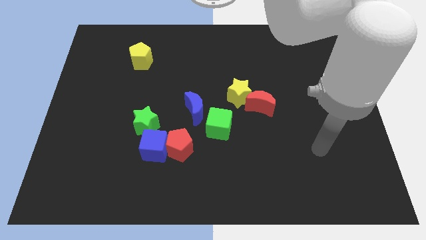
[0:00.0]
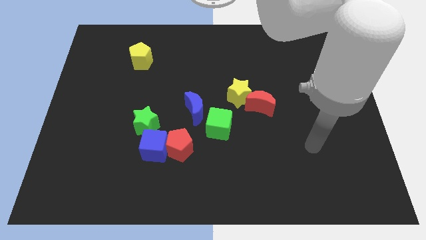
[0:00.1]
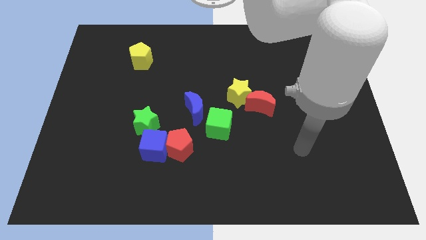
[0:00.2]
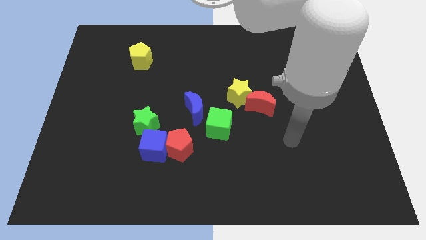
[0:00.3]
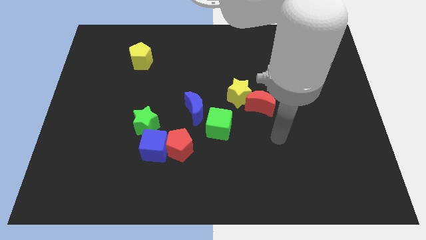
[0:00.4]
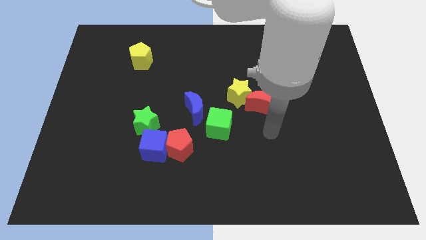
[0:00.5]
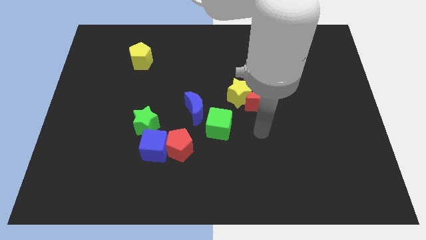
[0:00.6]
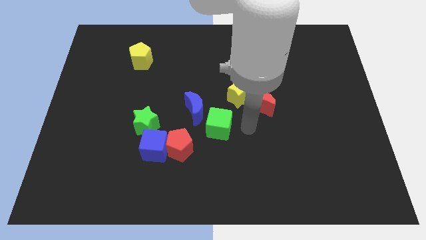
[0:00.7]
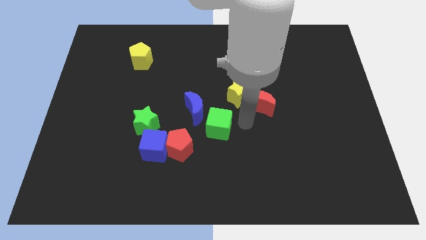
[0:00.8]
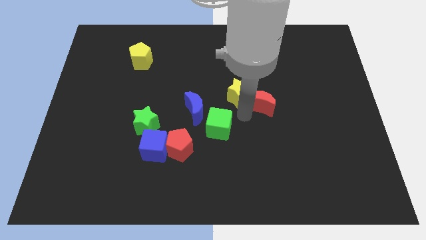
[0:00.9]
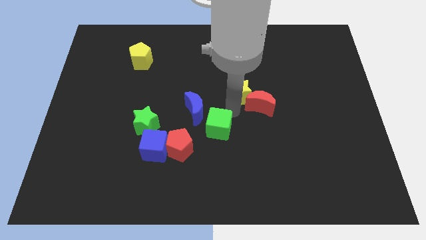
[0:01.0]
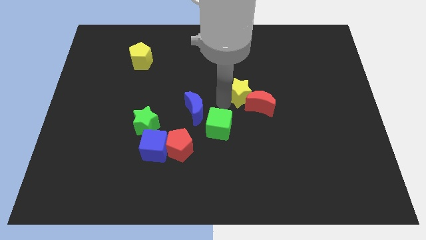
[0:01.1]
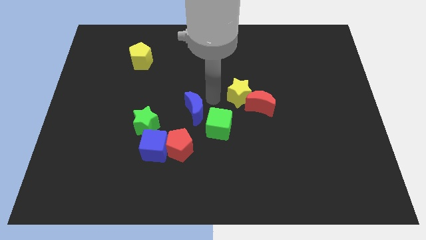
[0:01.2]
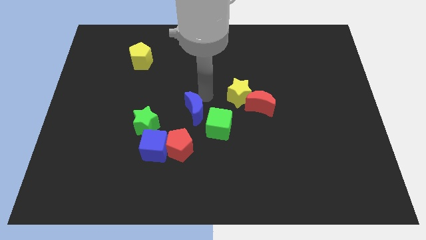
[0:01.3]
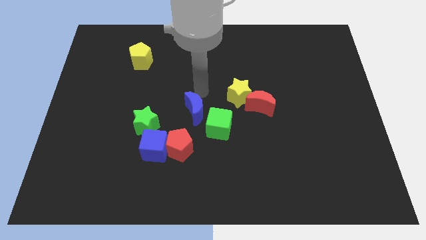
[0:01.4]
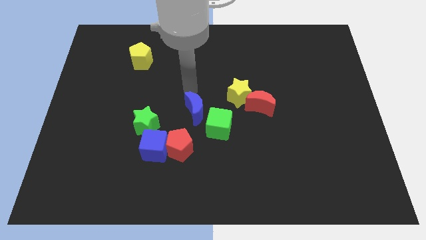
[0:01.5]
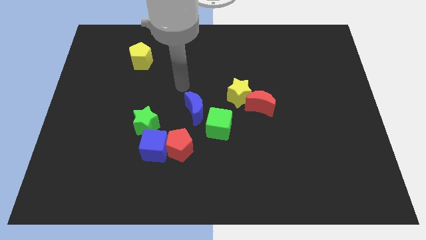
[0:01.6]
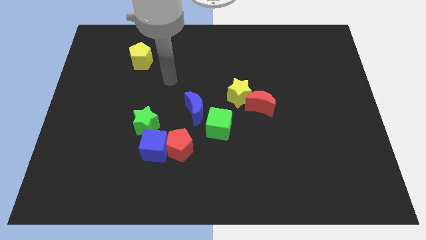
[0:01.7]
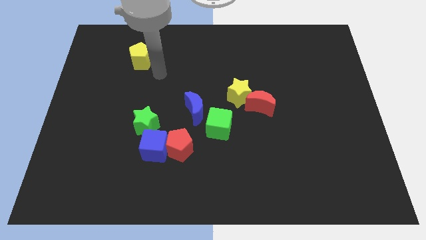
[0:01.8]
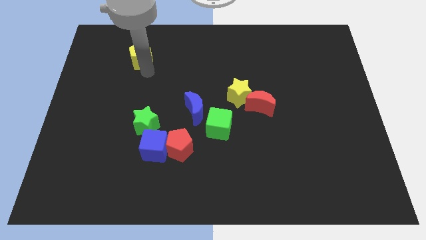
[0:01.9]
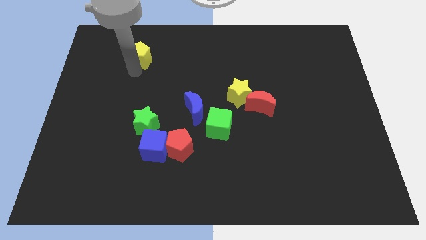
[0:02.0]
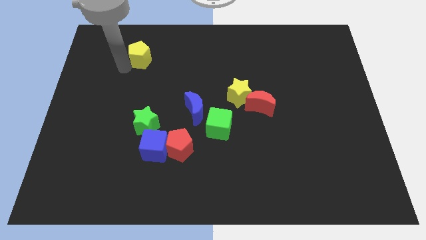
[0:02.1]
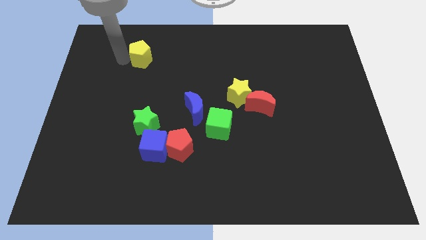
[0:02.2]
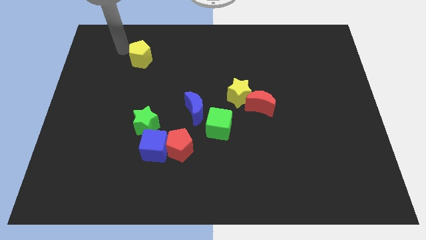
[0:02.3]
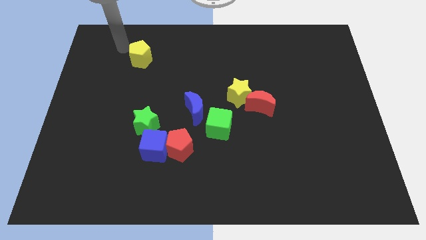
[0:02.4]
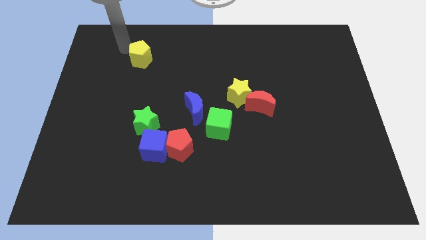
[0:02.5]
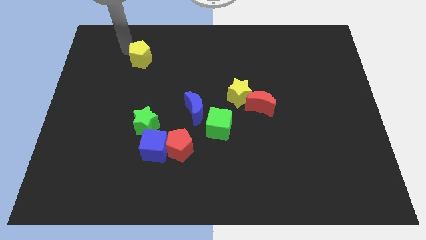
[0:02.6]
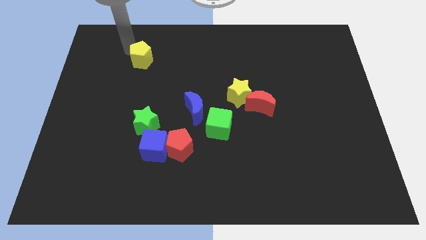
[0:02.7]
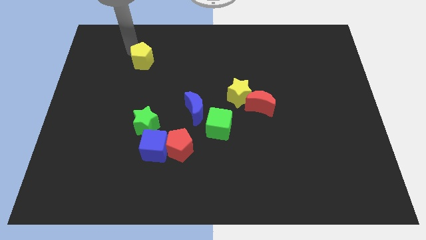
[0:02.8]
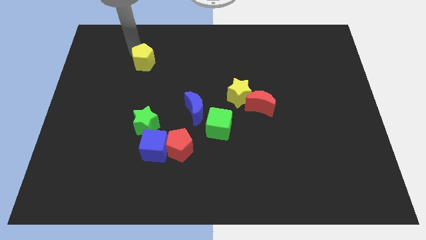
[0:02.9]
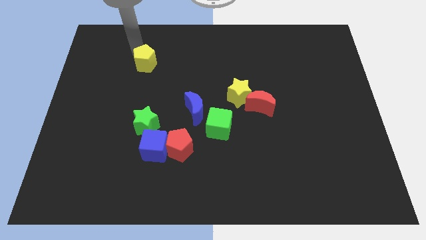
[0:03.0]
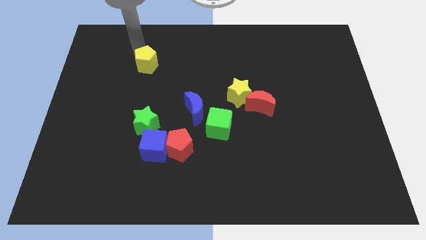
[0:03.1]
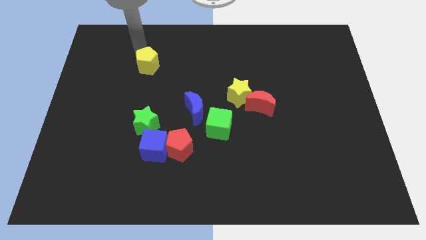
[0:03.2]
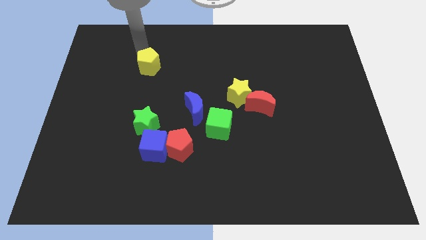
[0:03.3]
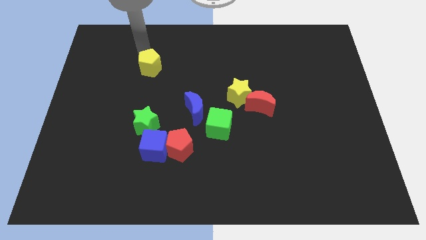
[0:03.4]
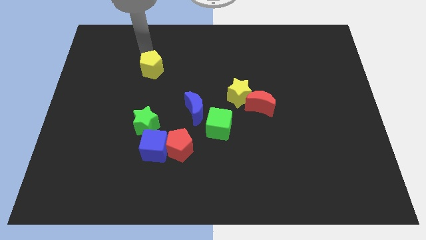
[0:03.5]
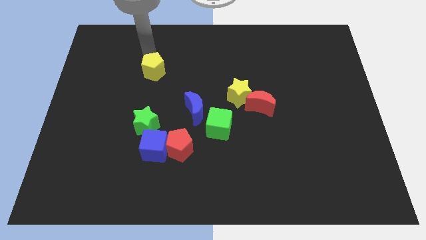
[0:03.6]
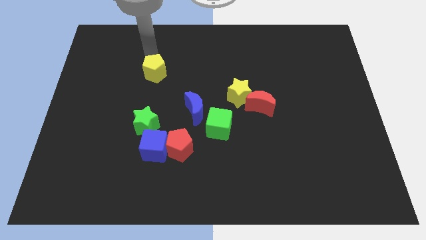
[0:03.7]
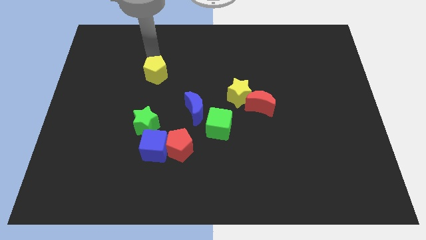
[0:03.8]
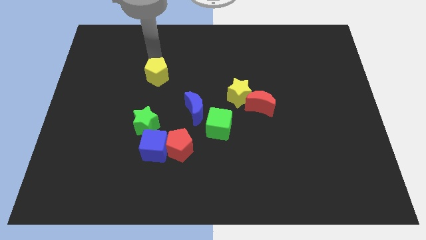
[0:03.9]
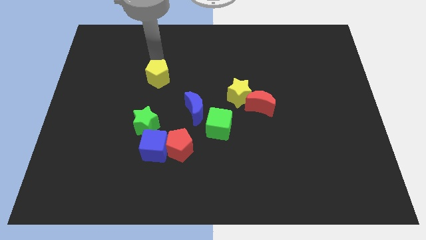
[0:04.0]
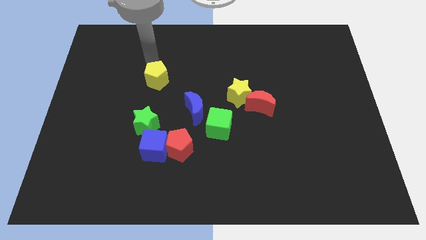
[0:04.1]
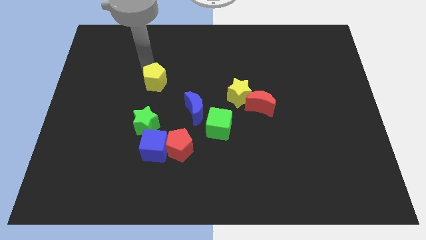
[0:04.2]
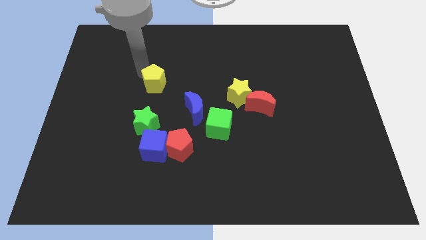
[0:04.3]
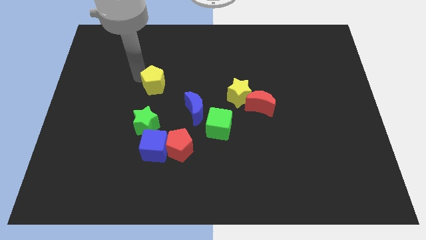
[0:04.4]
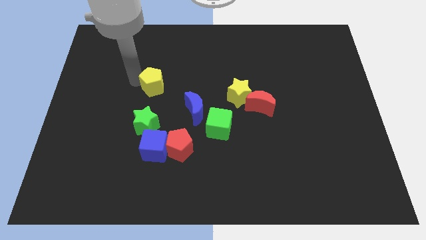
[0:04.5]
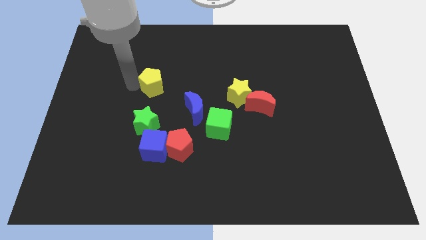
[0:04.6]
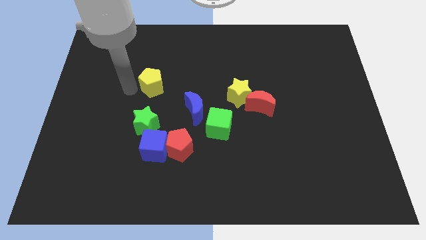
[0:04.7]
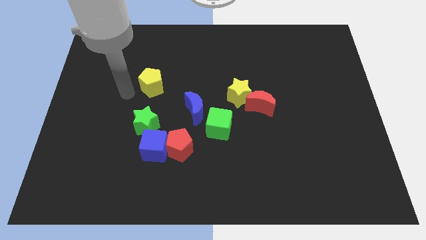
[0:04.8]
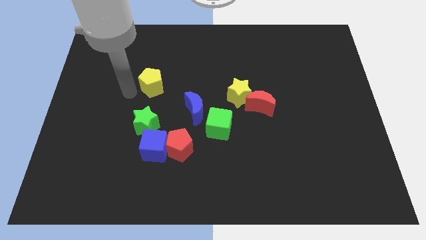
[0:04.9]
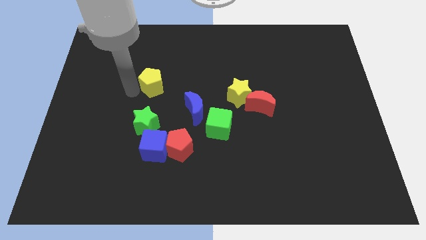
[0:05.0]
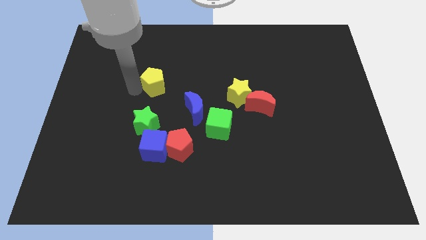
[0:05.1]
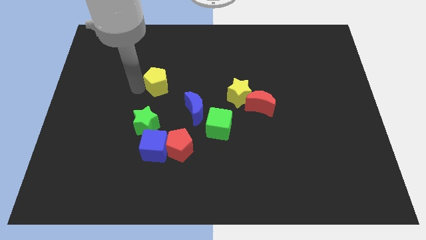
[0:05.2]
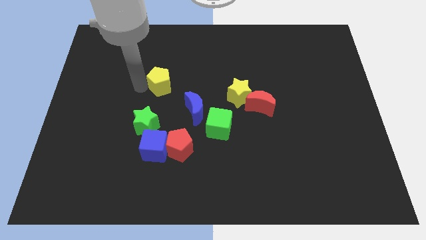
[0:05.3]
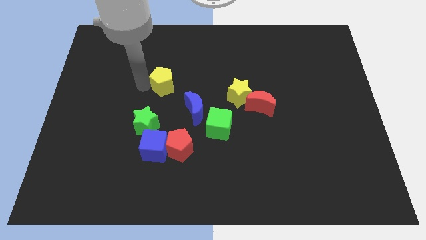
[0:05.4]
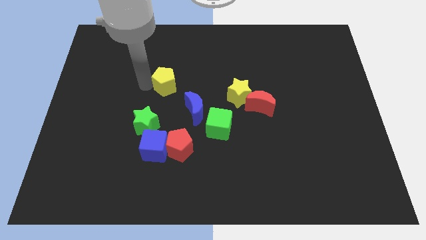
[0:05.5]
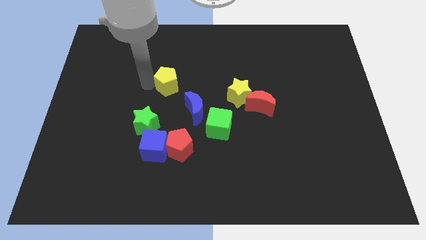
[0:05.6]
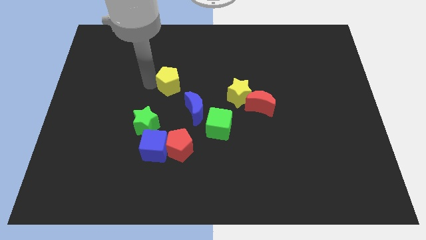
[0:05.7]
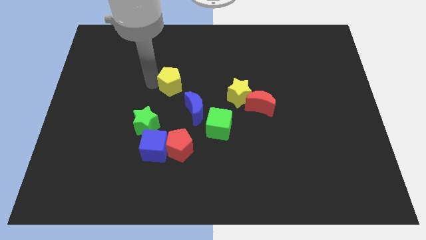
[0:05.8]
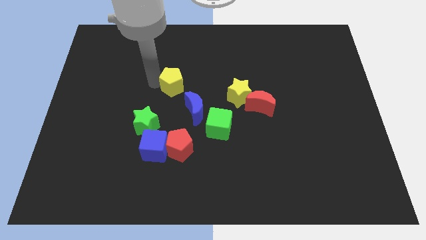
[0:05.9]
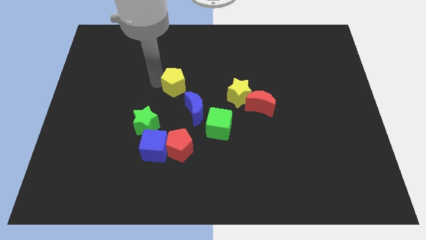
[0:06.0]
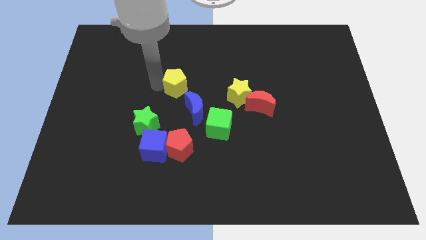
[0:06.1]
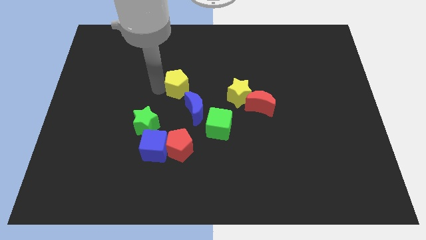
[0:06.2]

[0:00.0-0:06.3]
move the yellow pentagon just left of the yellow star

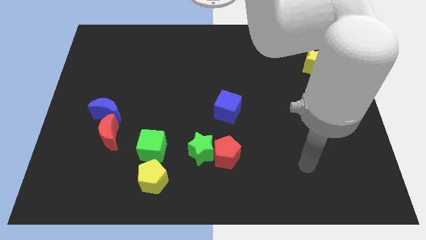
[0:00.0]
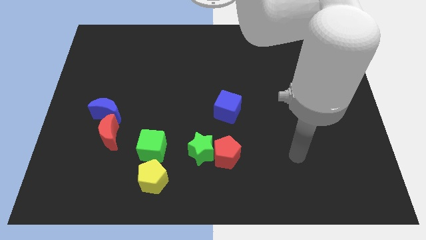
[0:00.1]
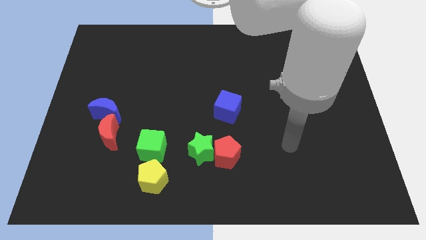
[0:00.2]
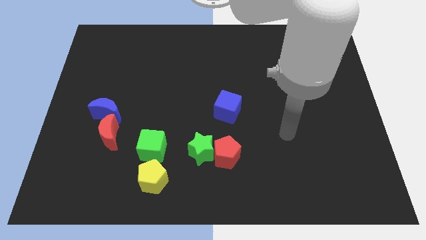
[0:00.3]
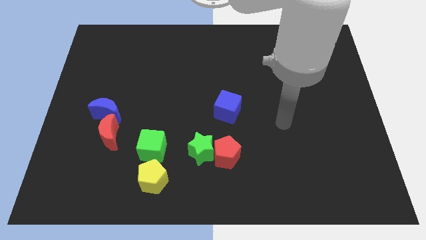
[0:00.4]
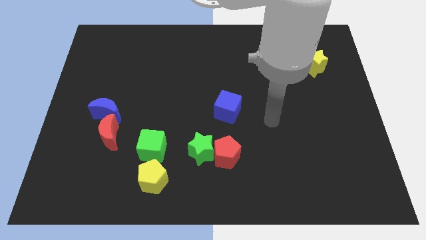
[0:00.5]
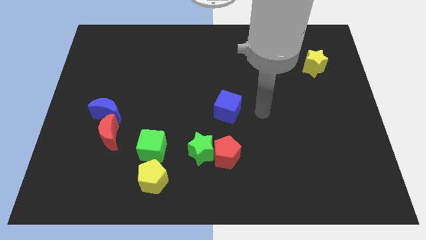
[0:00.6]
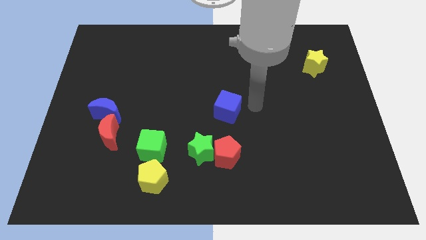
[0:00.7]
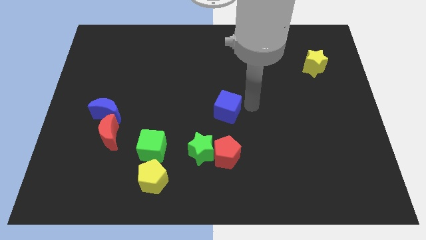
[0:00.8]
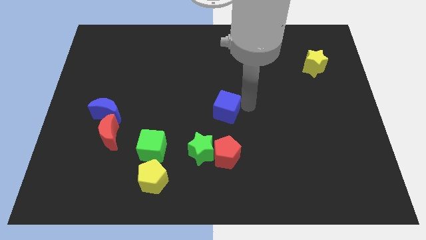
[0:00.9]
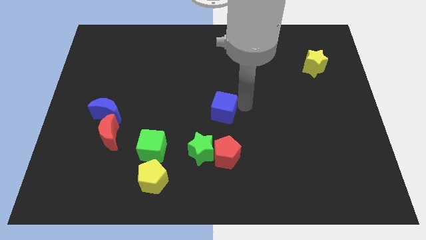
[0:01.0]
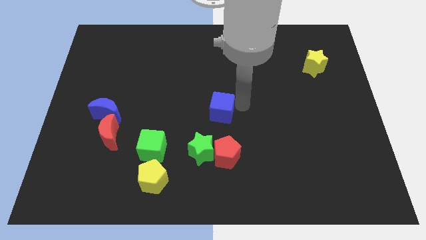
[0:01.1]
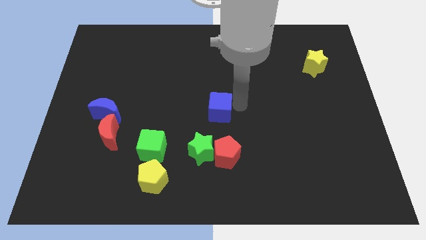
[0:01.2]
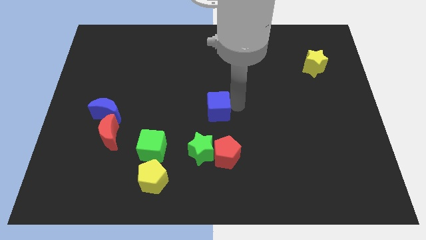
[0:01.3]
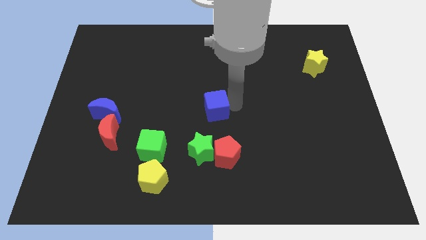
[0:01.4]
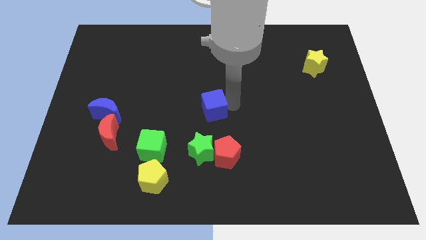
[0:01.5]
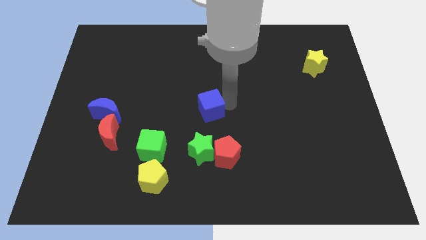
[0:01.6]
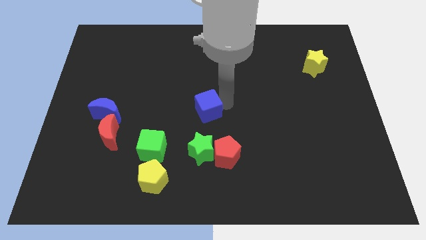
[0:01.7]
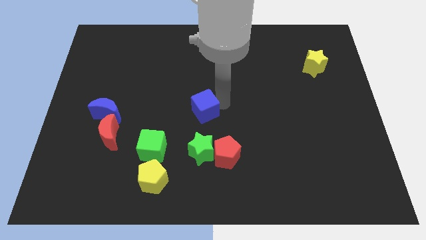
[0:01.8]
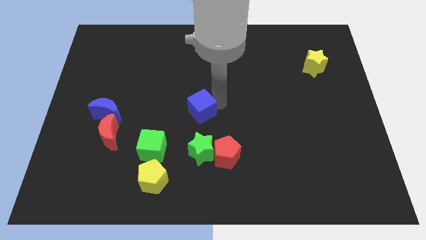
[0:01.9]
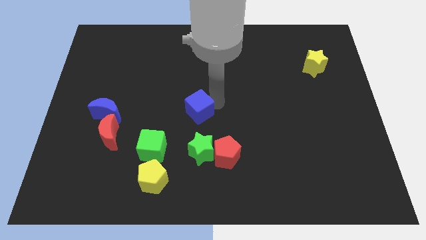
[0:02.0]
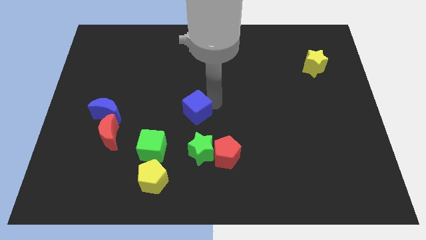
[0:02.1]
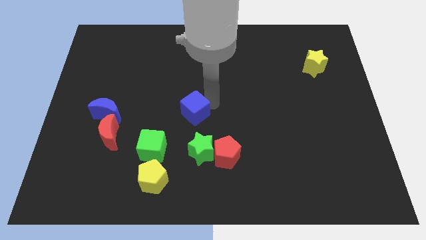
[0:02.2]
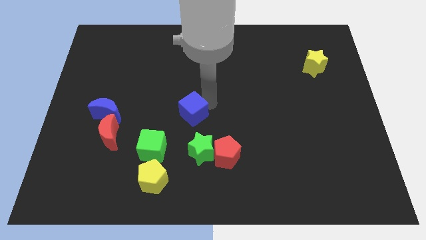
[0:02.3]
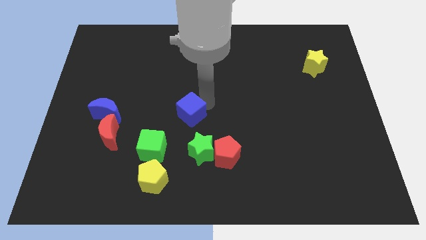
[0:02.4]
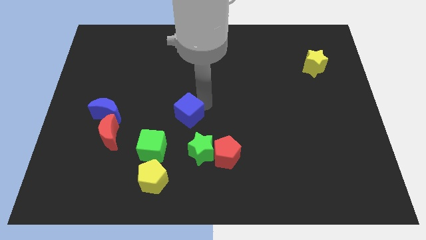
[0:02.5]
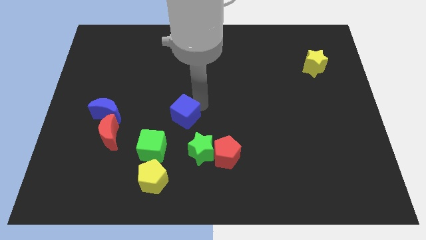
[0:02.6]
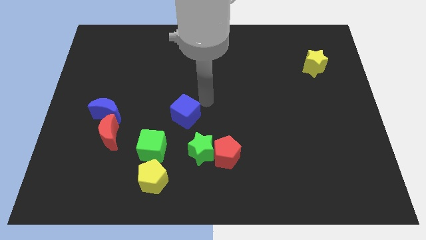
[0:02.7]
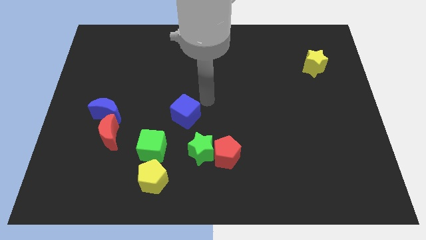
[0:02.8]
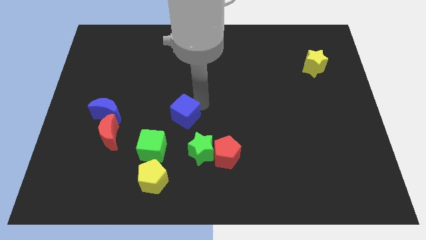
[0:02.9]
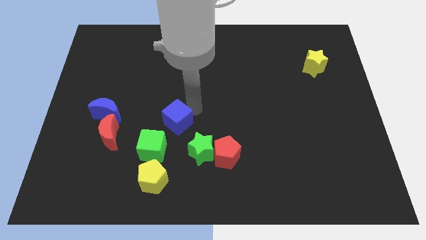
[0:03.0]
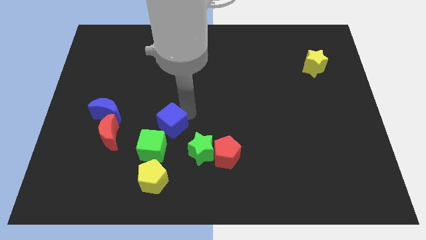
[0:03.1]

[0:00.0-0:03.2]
move the blue cube right of the red moon
